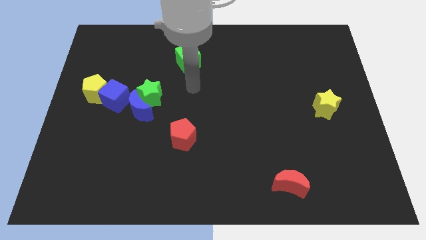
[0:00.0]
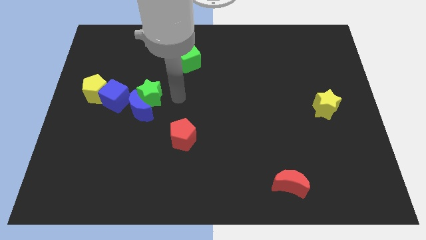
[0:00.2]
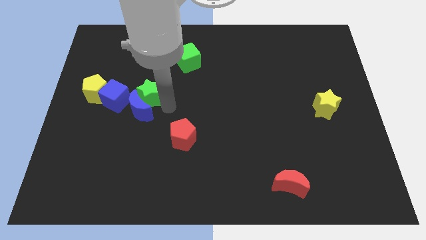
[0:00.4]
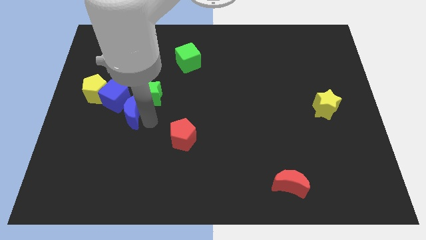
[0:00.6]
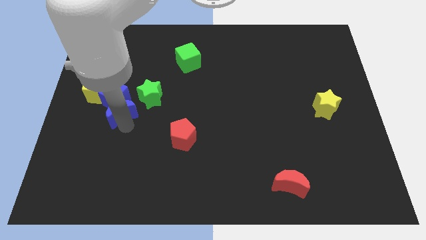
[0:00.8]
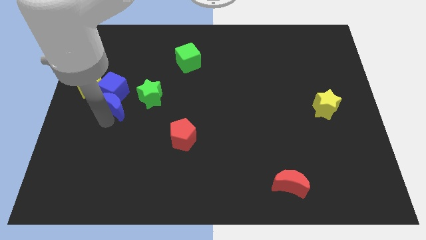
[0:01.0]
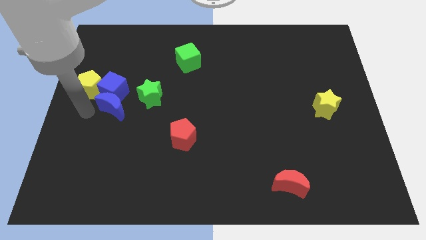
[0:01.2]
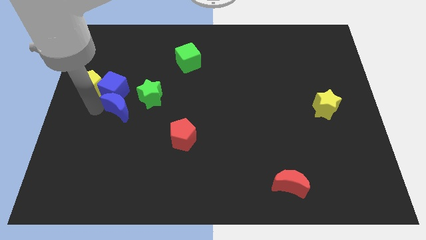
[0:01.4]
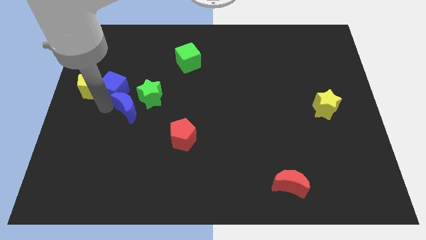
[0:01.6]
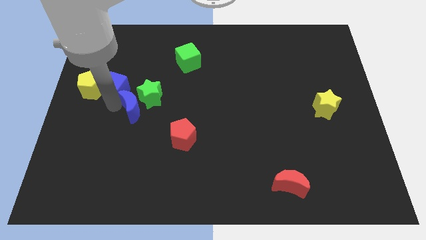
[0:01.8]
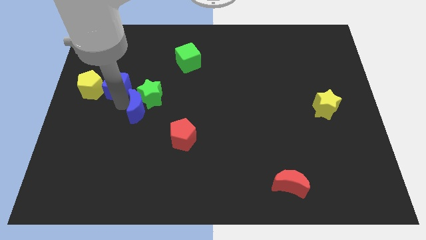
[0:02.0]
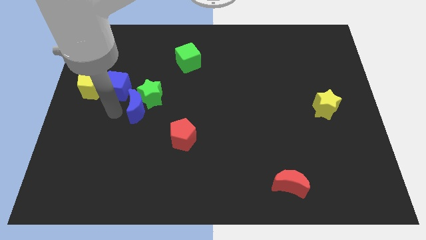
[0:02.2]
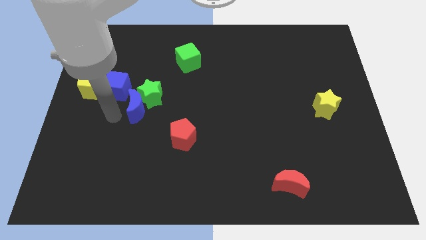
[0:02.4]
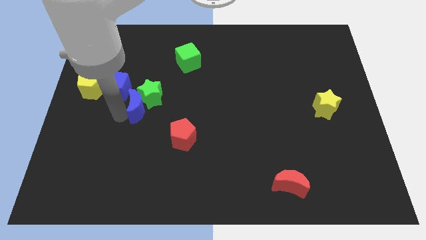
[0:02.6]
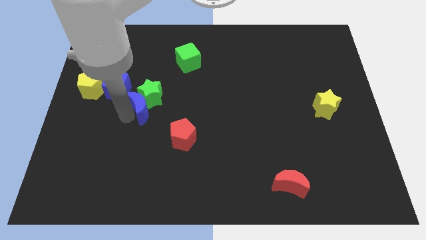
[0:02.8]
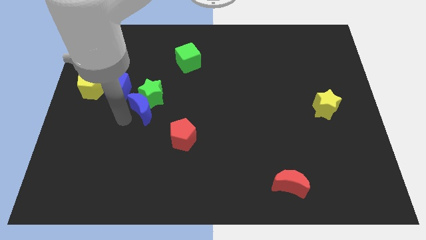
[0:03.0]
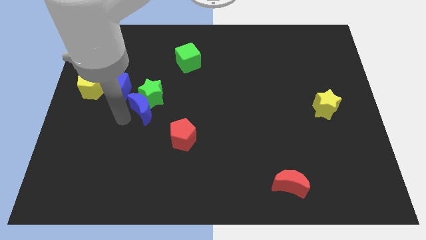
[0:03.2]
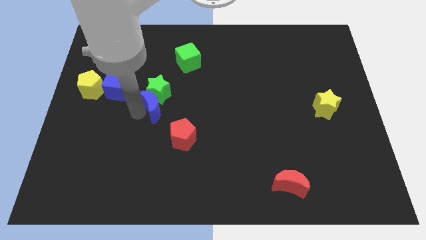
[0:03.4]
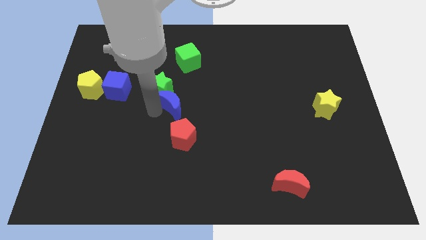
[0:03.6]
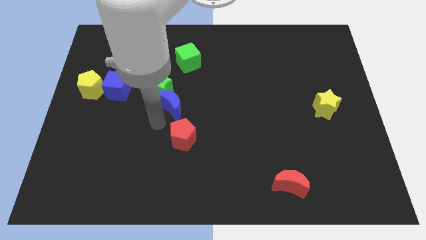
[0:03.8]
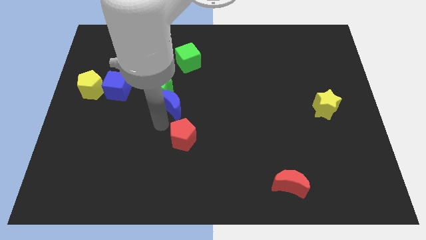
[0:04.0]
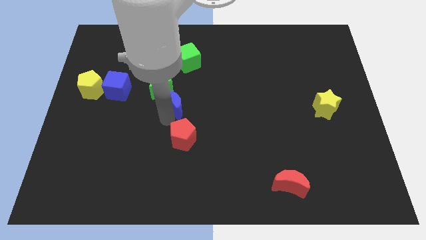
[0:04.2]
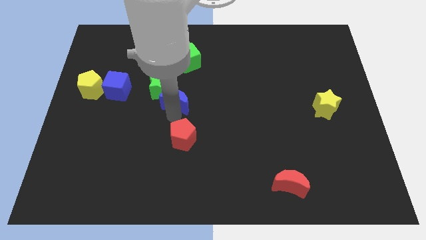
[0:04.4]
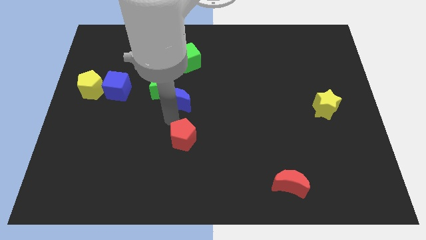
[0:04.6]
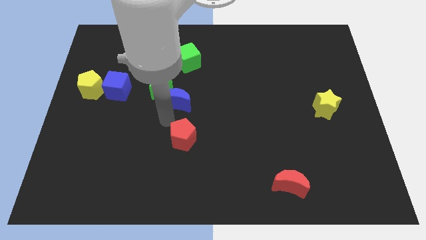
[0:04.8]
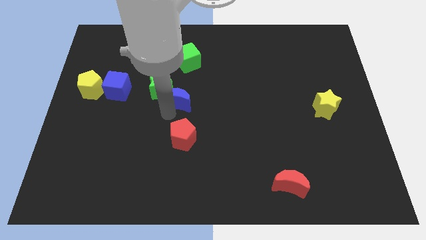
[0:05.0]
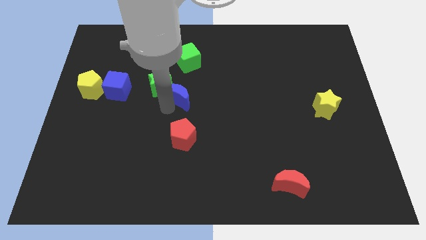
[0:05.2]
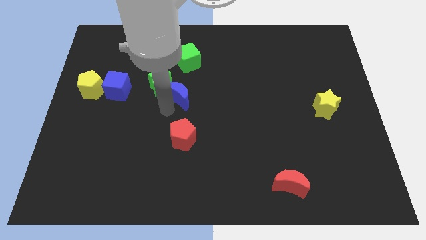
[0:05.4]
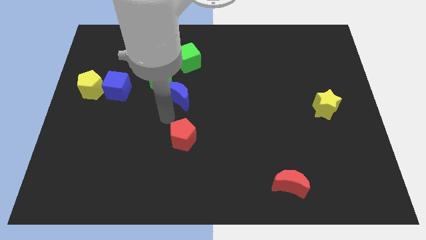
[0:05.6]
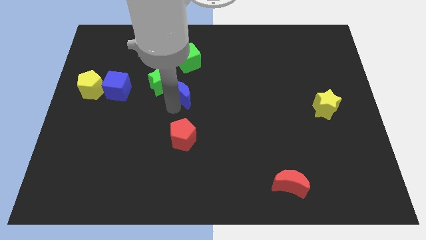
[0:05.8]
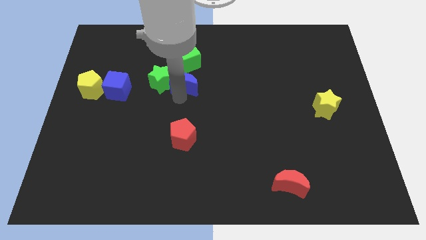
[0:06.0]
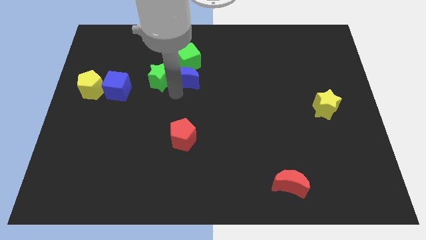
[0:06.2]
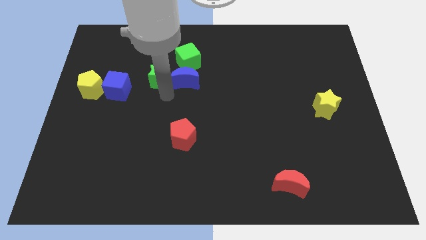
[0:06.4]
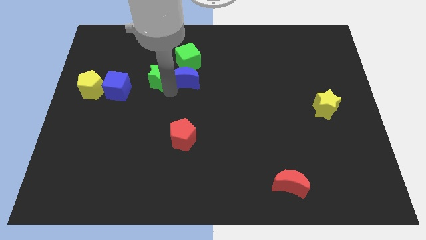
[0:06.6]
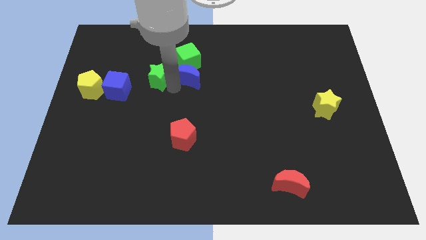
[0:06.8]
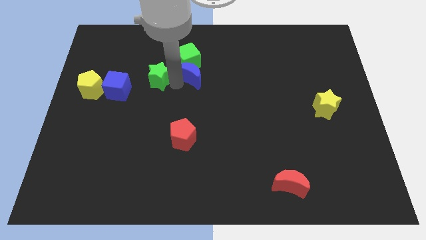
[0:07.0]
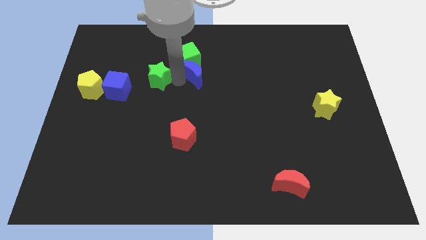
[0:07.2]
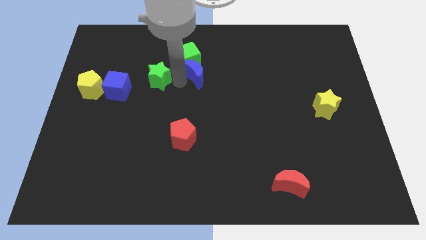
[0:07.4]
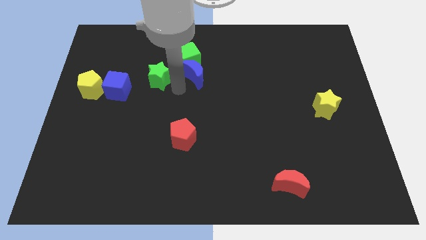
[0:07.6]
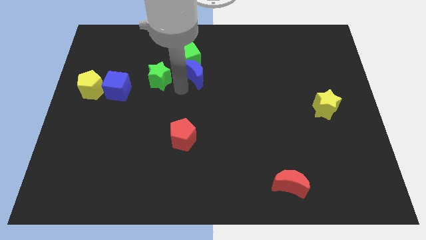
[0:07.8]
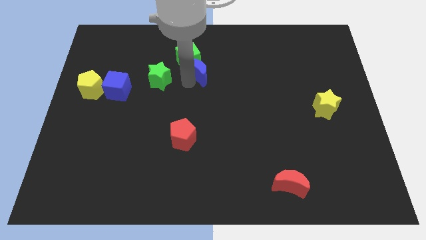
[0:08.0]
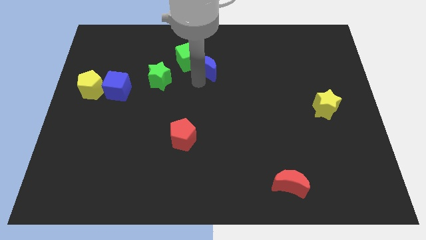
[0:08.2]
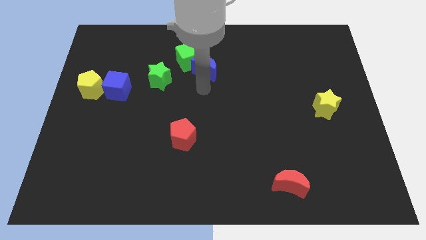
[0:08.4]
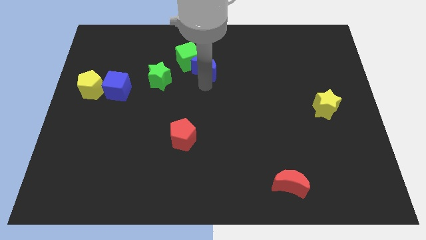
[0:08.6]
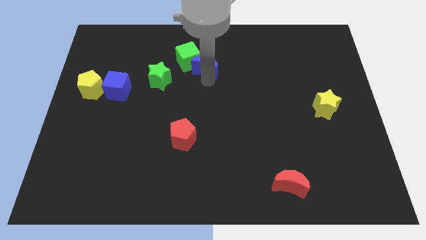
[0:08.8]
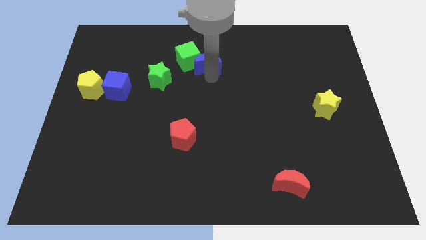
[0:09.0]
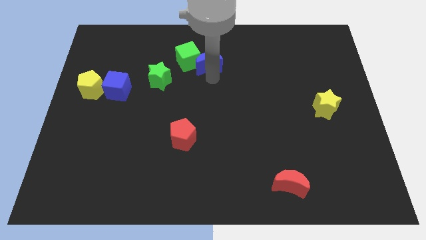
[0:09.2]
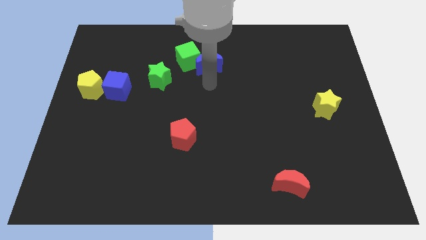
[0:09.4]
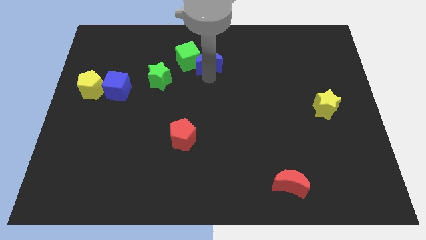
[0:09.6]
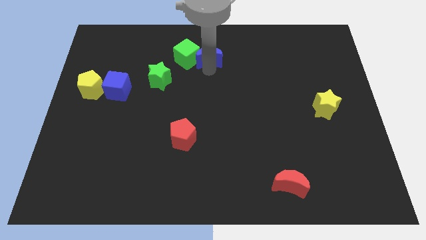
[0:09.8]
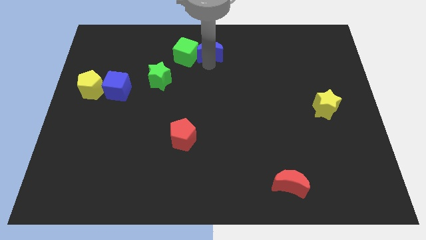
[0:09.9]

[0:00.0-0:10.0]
move the blue moon to the top side

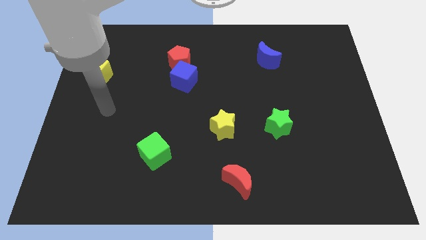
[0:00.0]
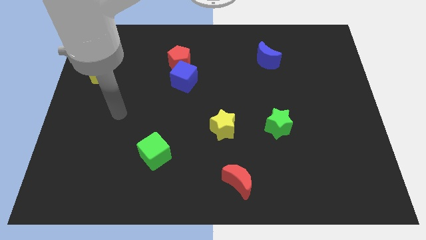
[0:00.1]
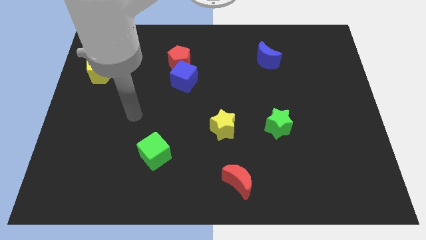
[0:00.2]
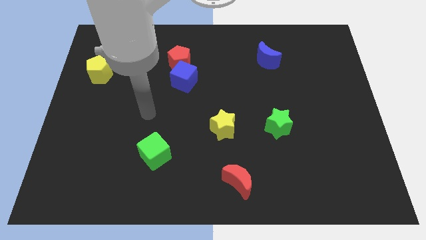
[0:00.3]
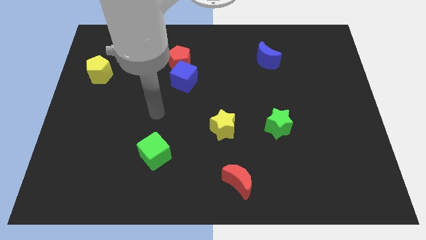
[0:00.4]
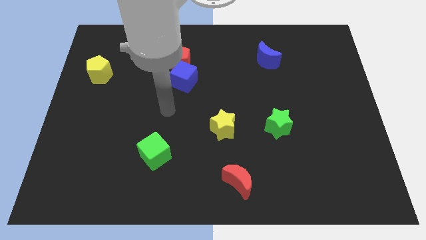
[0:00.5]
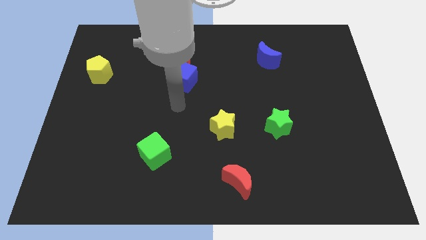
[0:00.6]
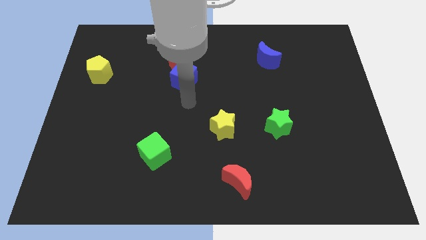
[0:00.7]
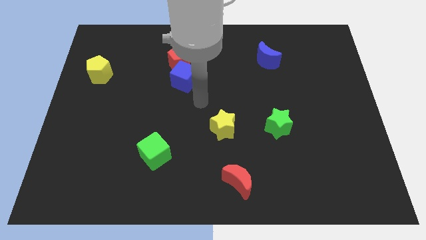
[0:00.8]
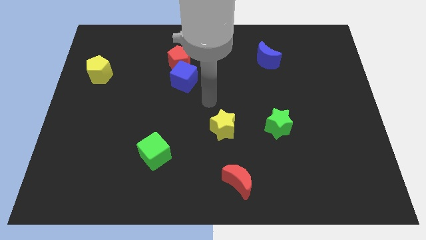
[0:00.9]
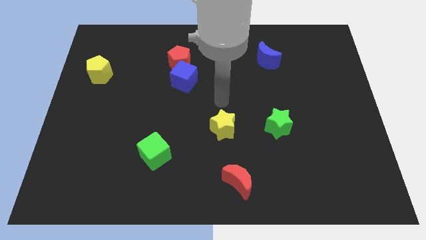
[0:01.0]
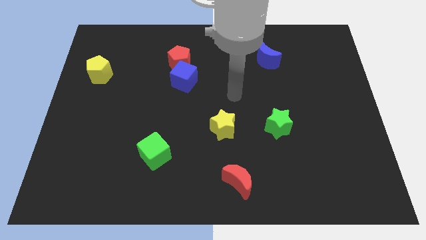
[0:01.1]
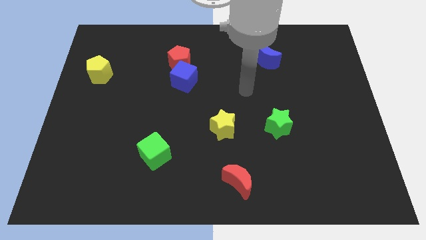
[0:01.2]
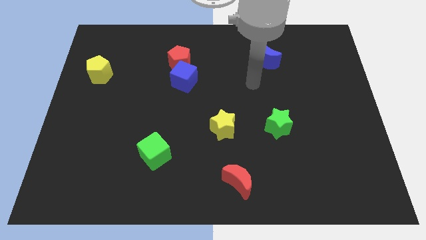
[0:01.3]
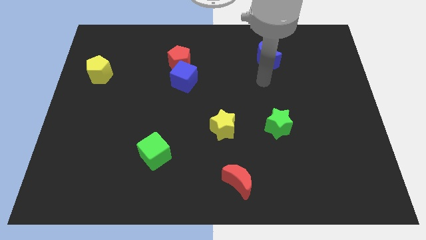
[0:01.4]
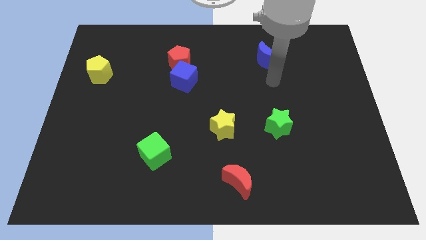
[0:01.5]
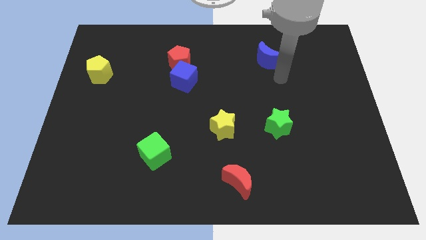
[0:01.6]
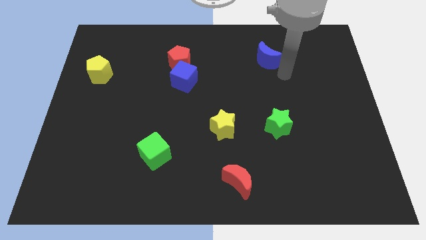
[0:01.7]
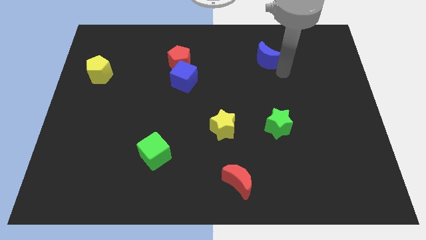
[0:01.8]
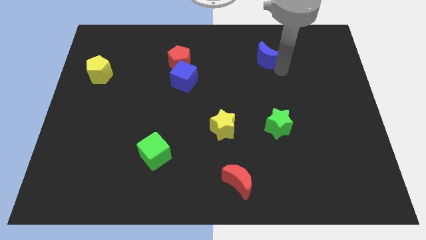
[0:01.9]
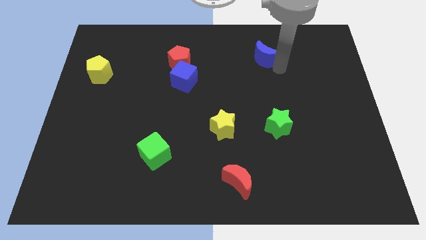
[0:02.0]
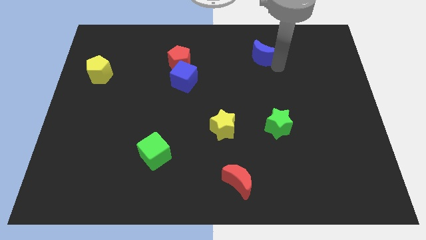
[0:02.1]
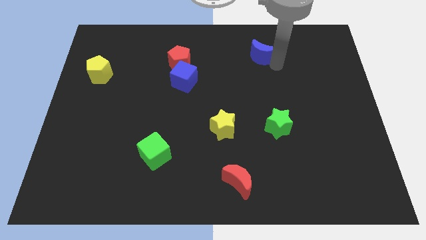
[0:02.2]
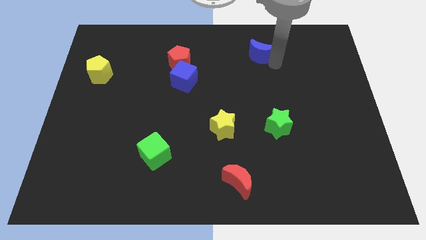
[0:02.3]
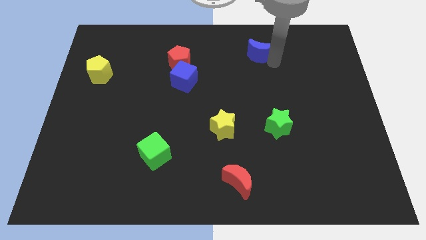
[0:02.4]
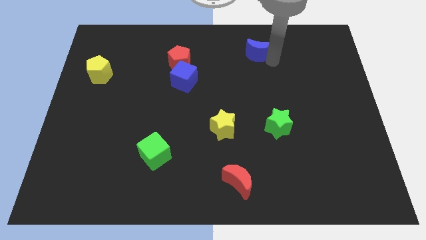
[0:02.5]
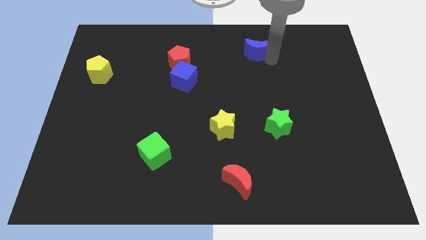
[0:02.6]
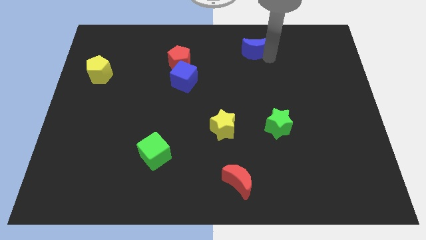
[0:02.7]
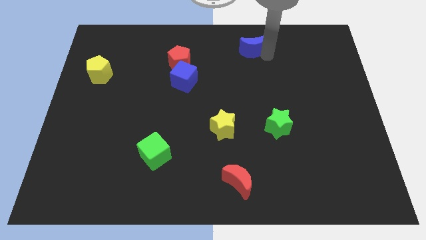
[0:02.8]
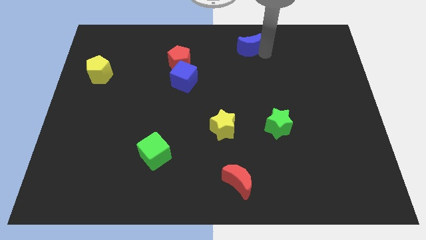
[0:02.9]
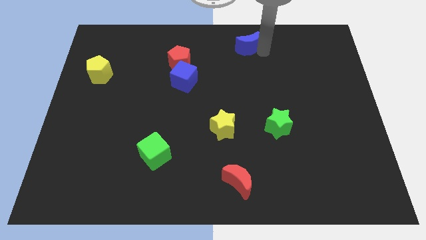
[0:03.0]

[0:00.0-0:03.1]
put the blue moon to the towards your base
